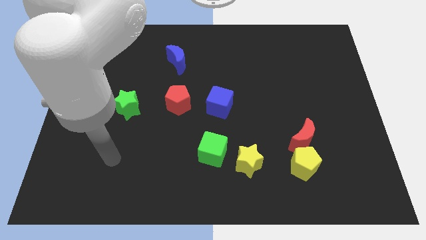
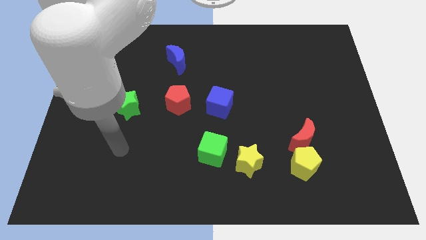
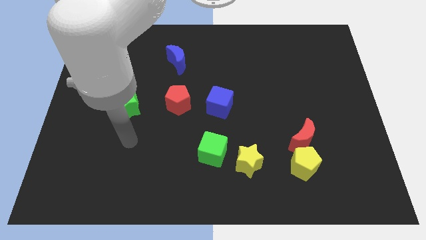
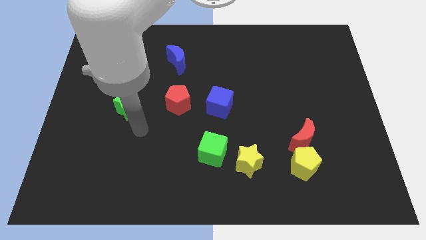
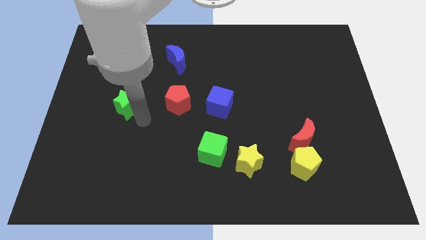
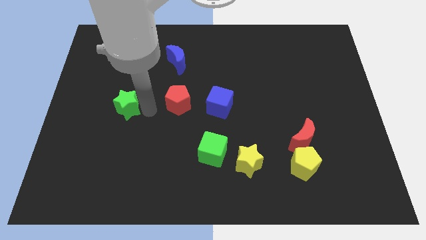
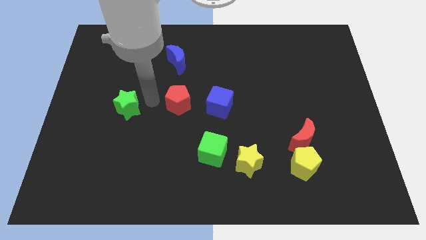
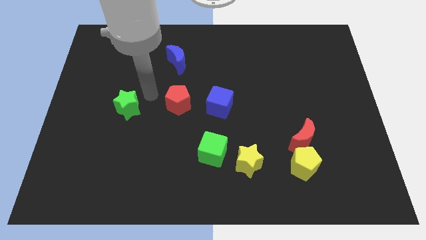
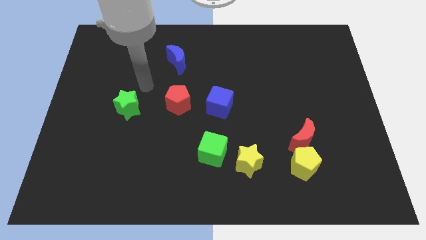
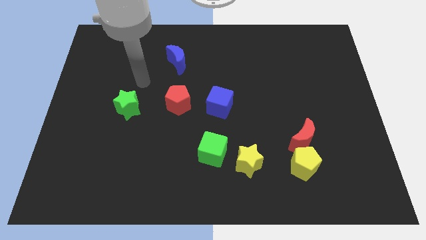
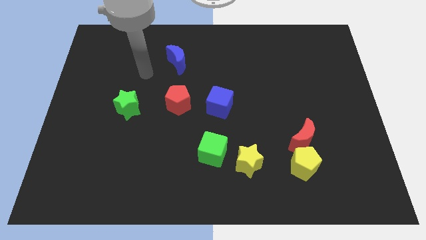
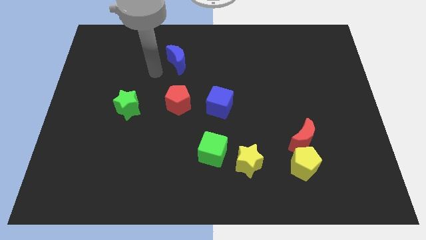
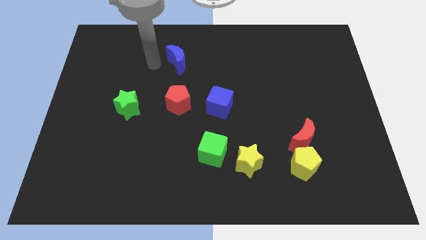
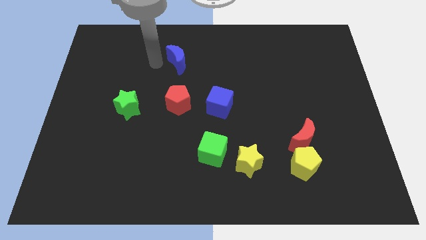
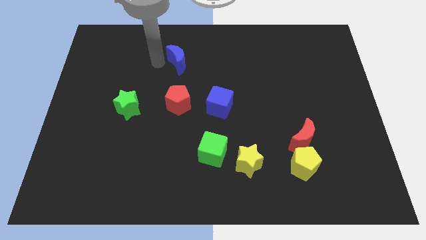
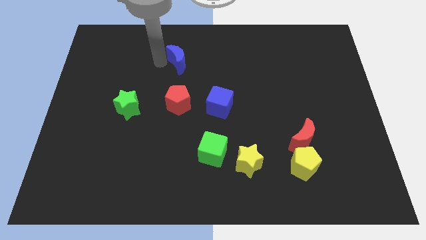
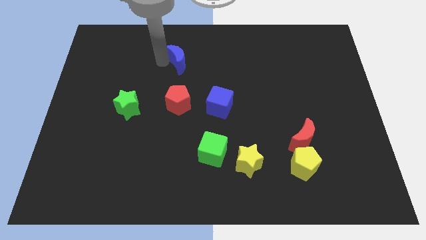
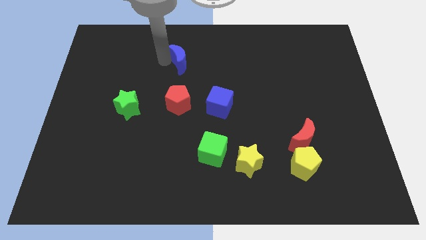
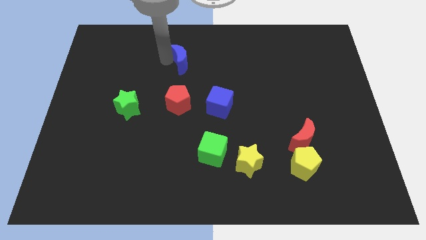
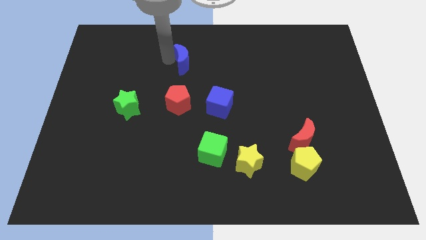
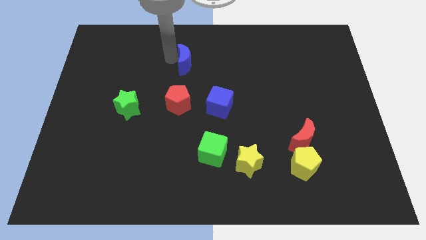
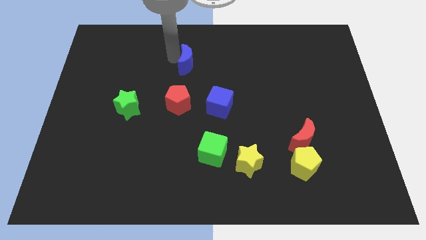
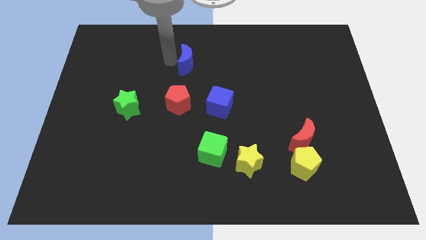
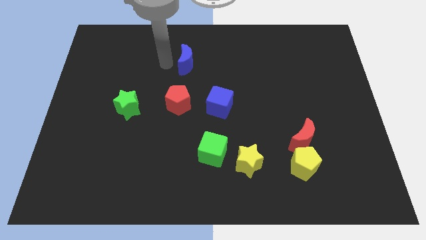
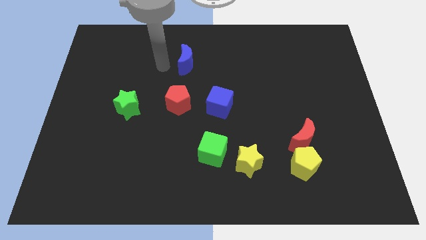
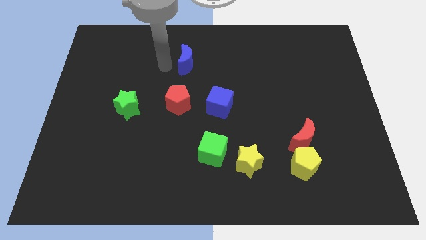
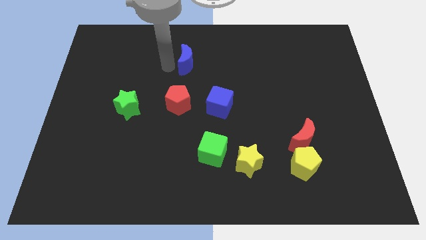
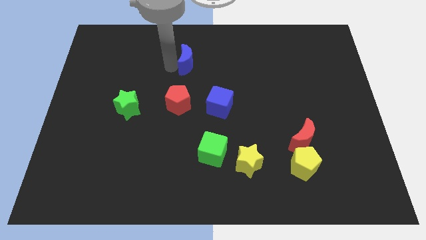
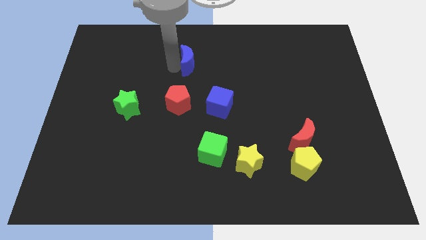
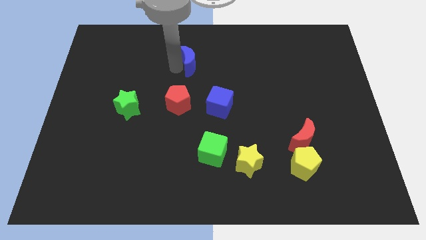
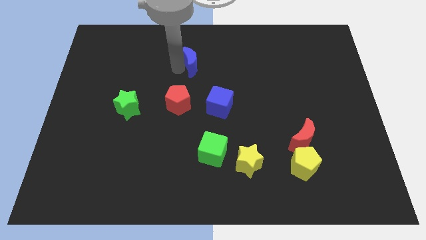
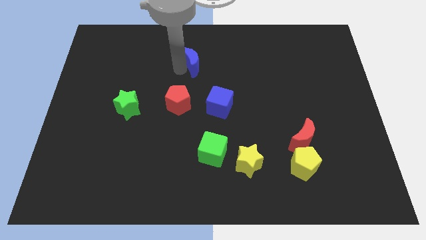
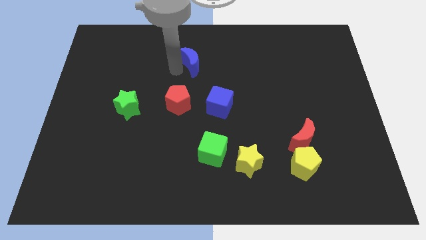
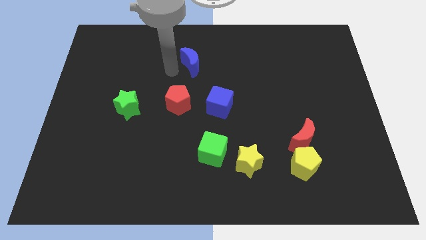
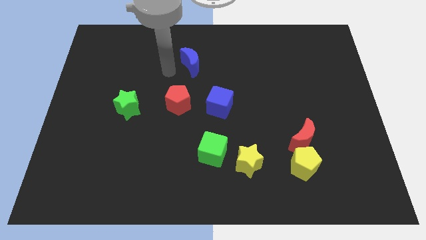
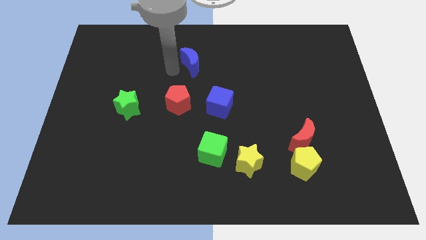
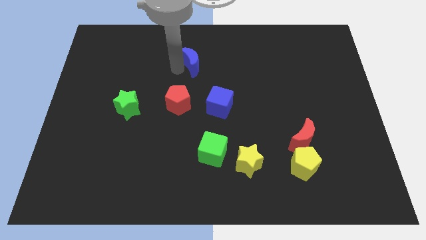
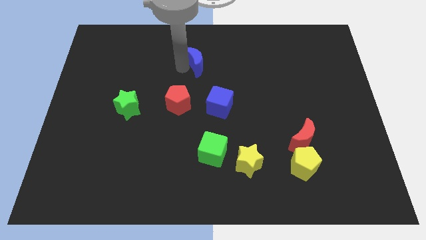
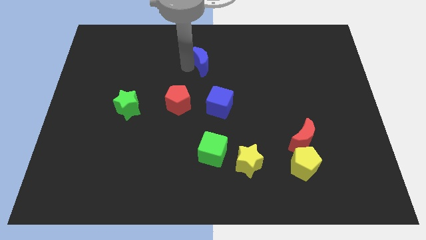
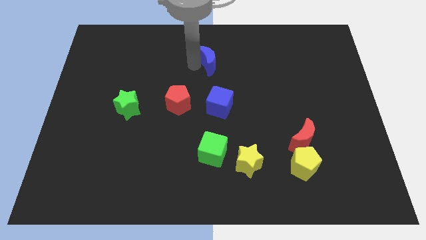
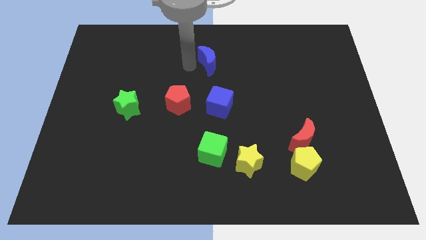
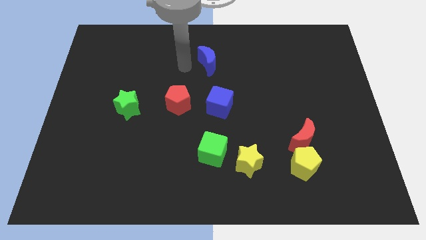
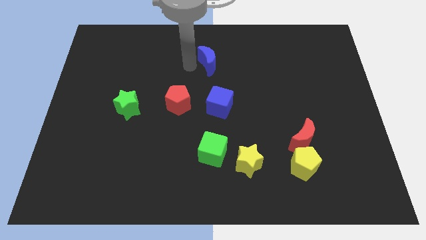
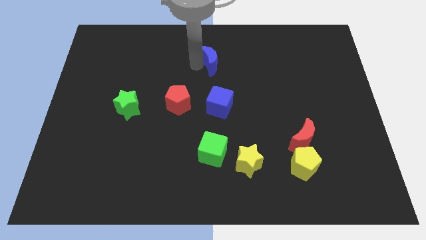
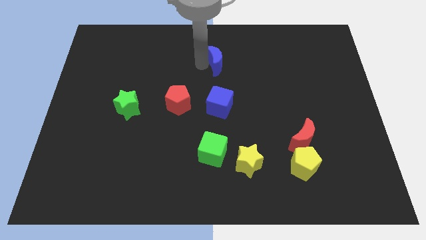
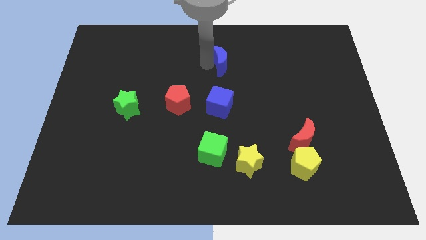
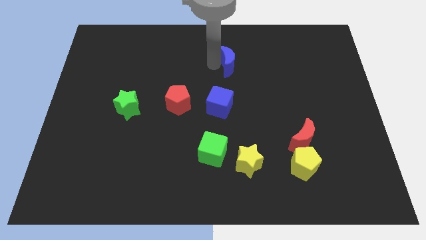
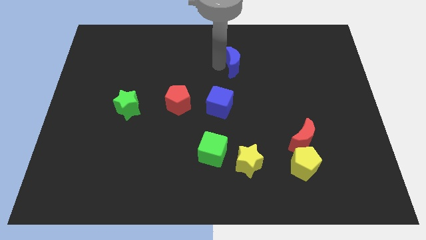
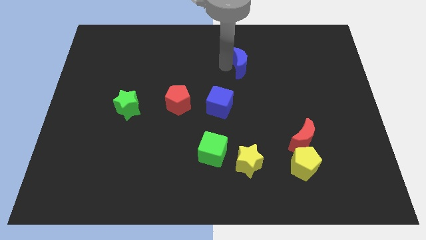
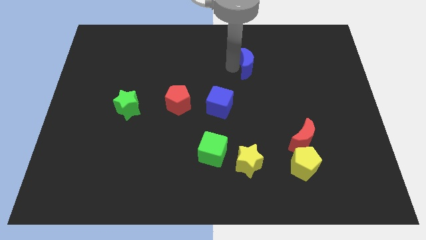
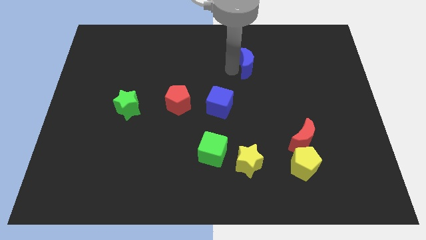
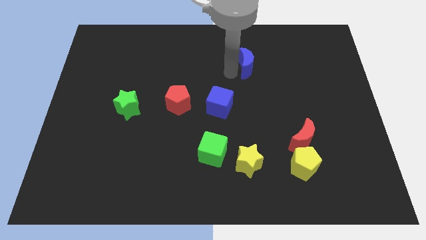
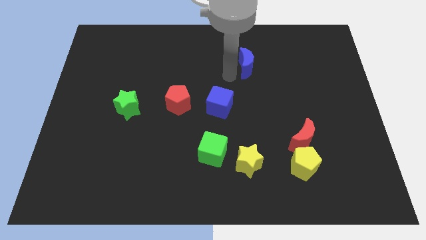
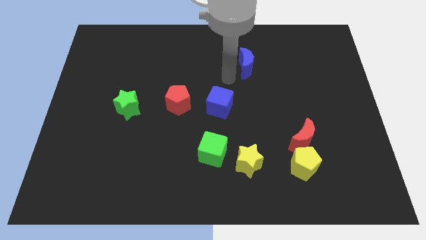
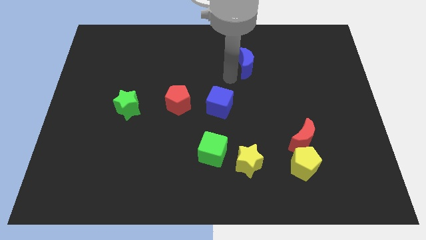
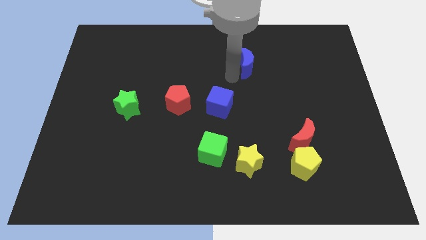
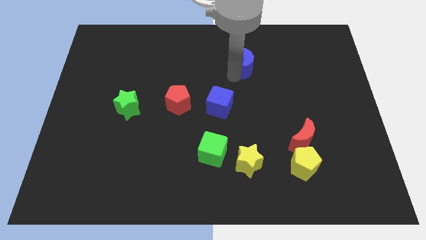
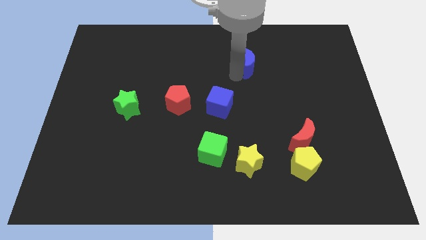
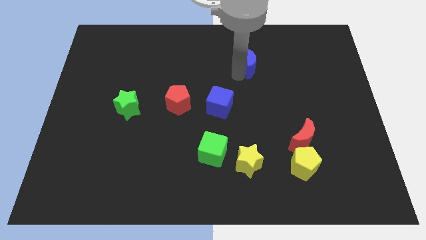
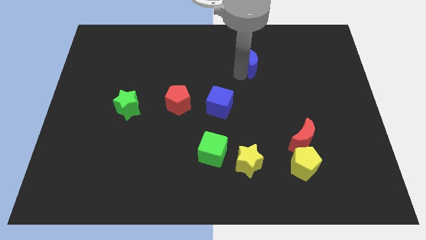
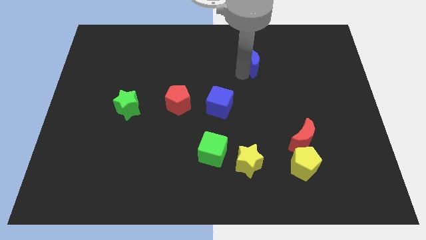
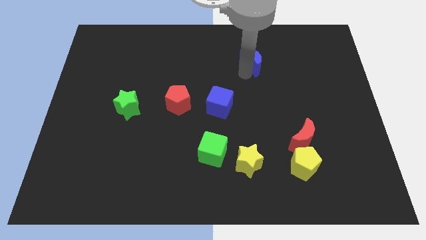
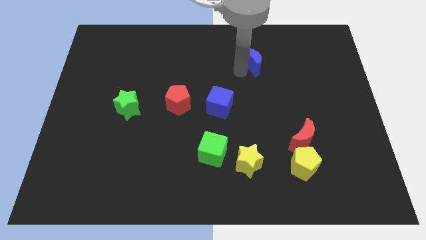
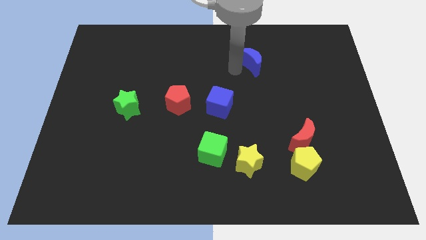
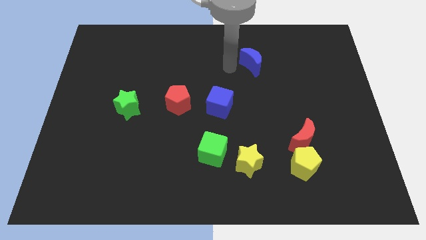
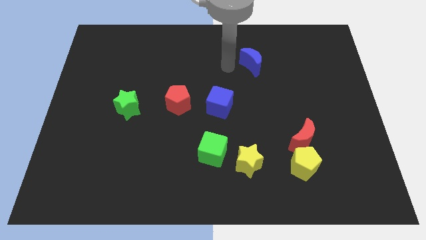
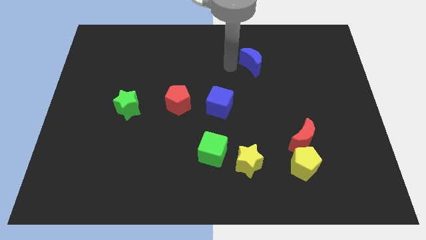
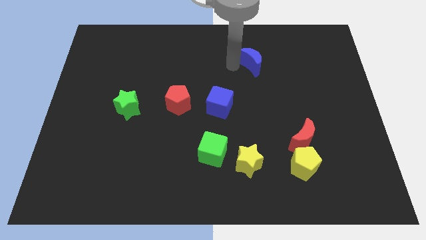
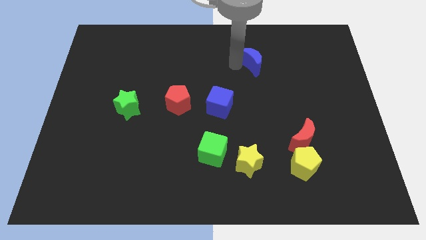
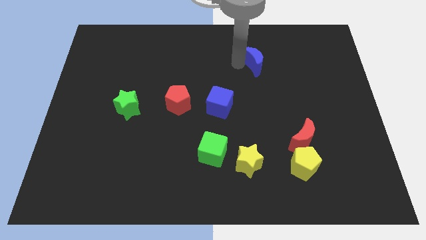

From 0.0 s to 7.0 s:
slide the blue moon right

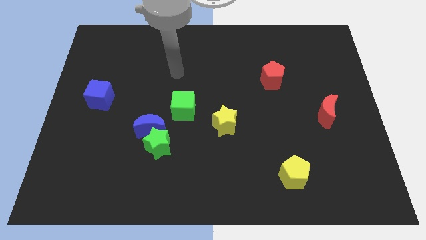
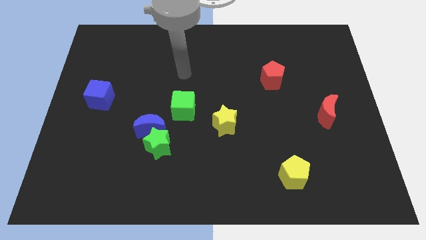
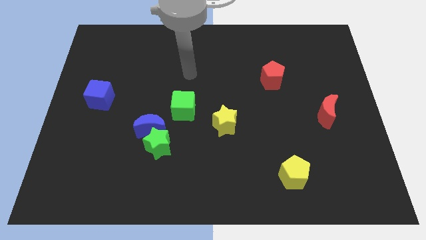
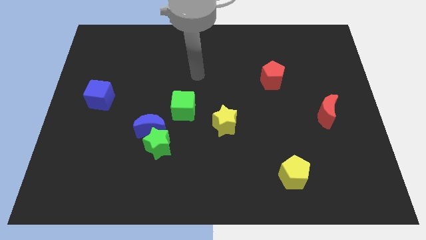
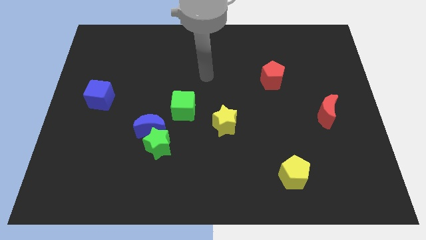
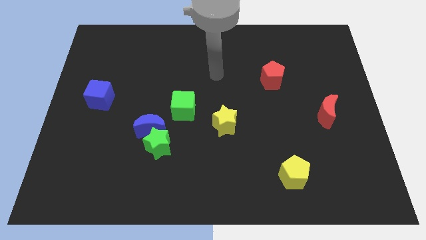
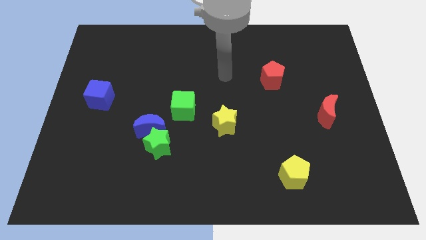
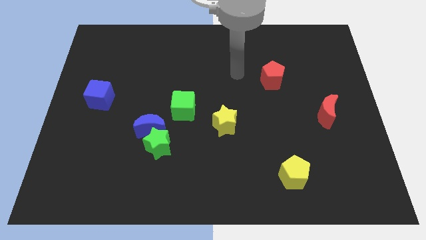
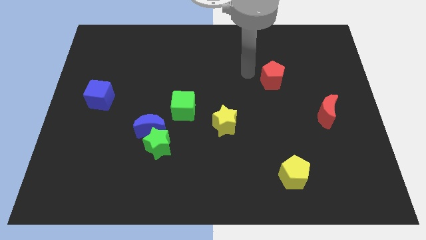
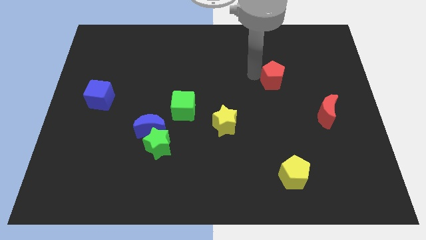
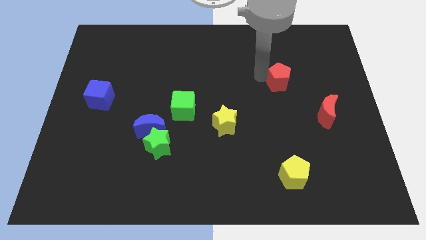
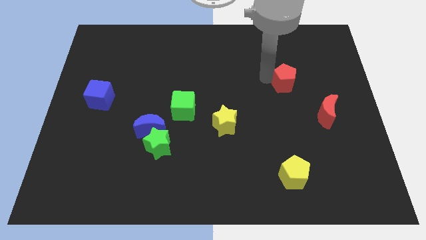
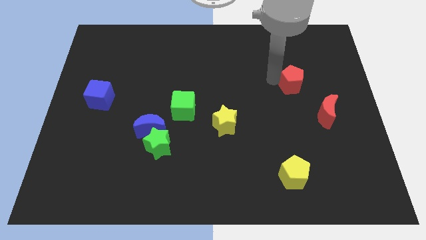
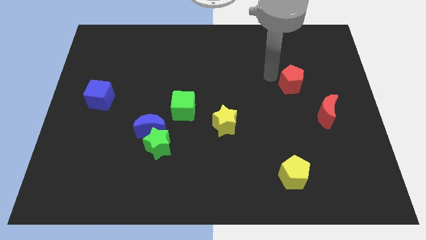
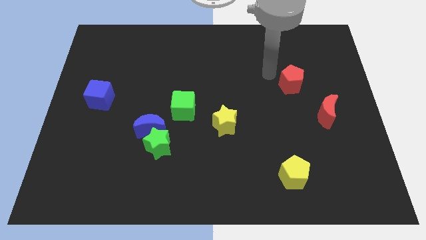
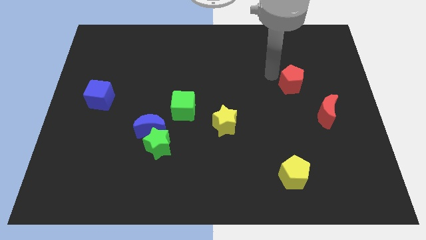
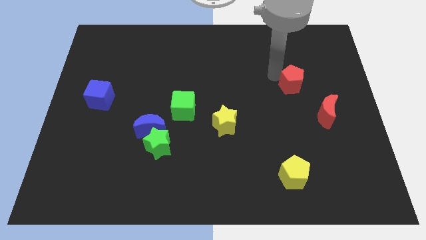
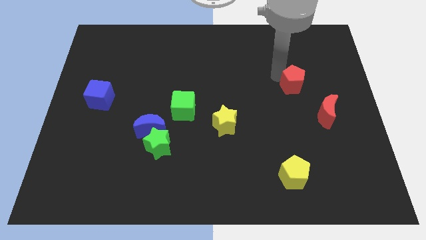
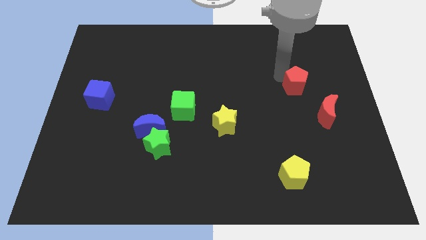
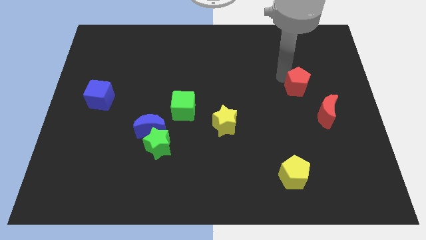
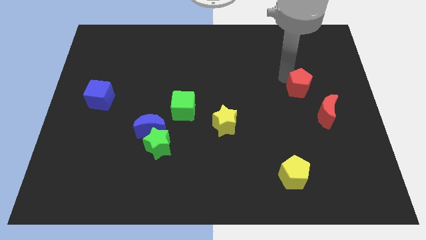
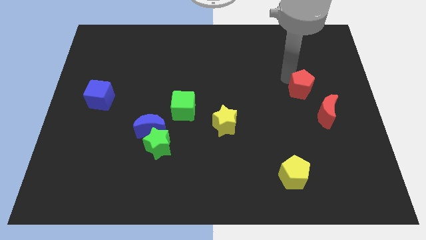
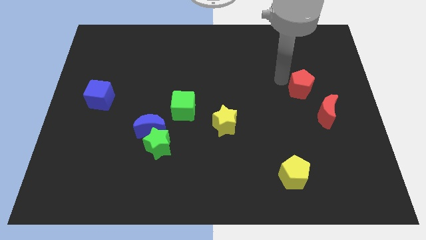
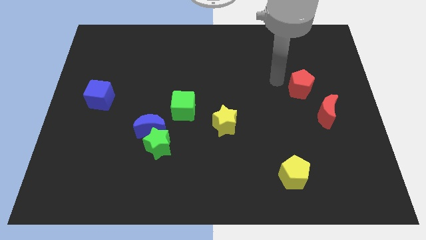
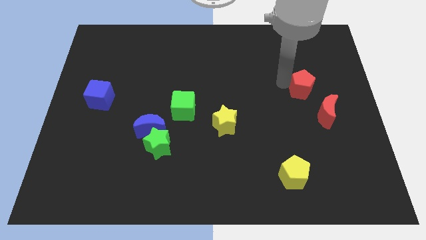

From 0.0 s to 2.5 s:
slightly push the red pentagon down and right
